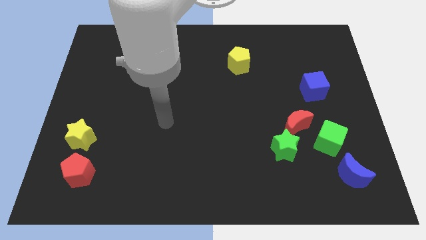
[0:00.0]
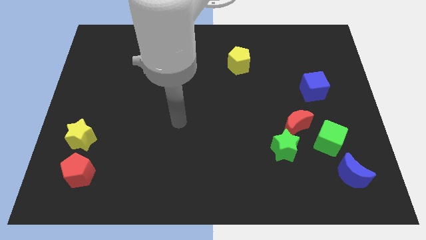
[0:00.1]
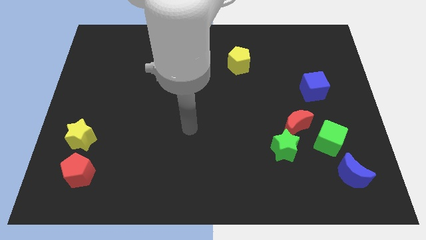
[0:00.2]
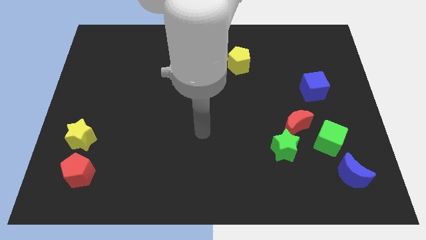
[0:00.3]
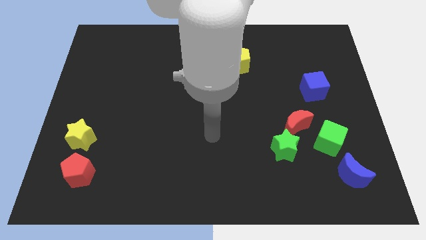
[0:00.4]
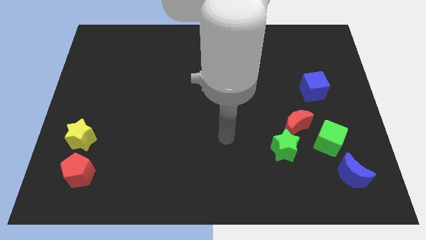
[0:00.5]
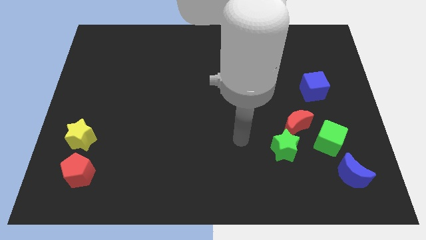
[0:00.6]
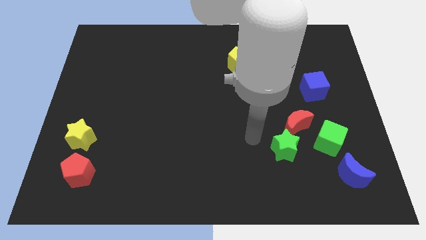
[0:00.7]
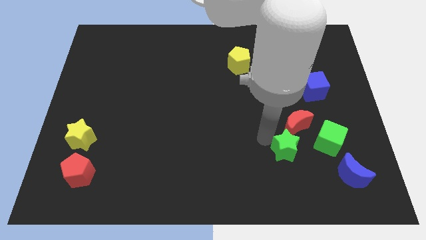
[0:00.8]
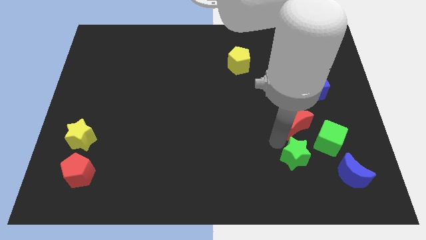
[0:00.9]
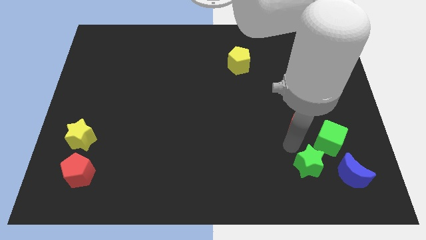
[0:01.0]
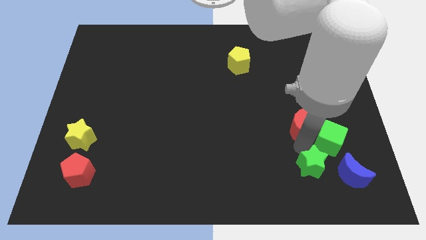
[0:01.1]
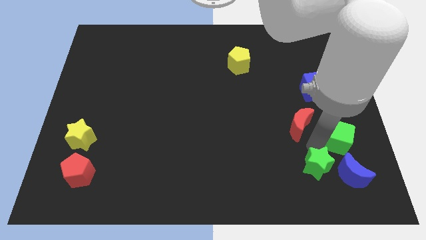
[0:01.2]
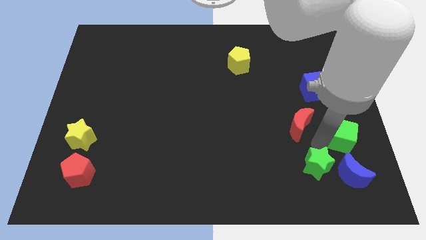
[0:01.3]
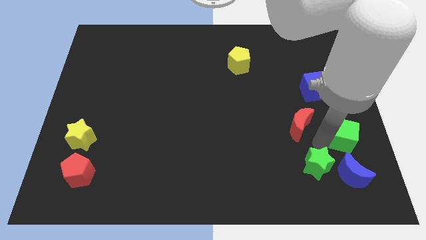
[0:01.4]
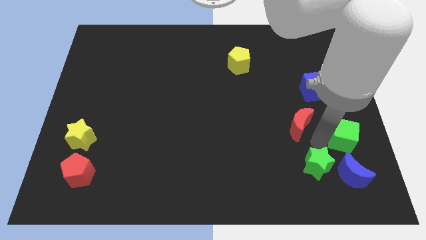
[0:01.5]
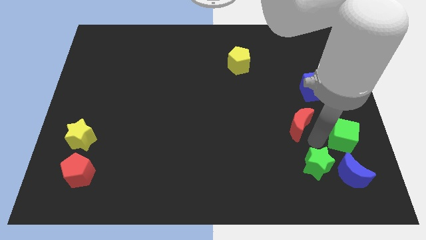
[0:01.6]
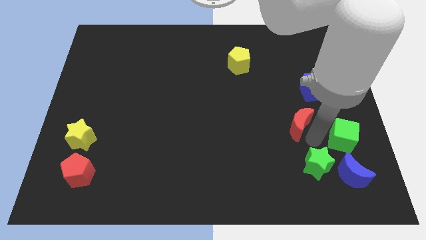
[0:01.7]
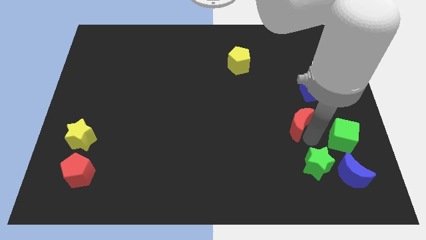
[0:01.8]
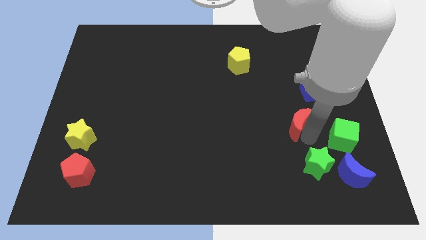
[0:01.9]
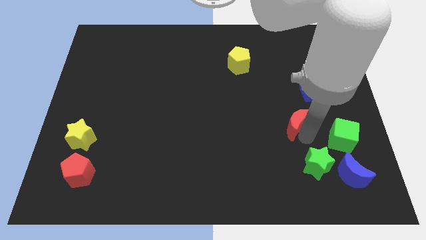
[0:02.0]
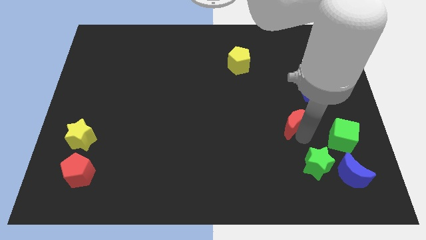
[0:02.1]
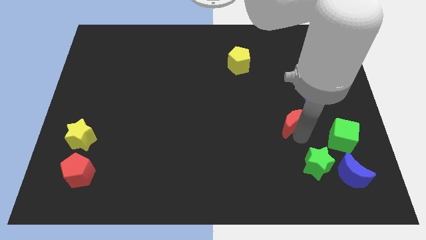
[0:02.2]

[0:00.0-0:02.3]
pull the red moon apart from the green star and green cube

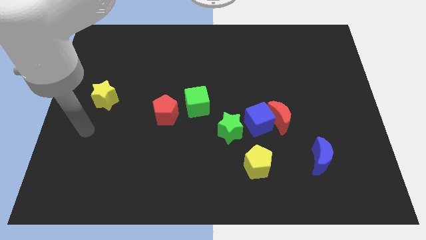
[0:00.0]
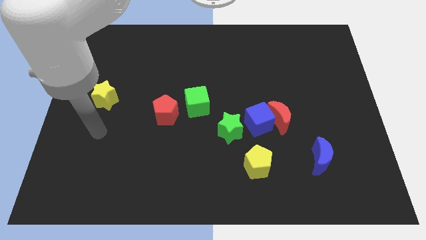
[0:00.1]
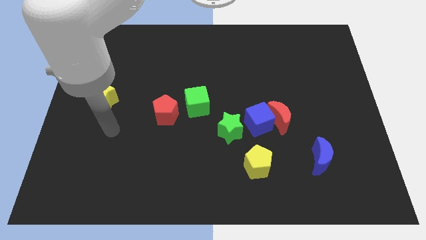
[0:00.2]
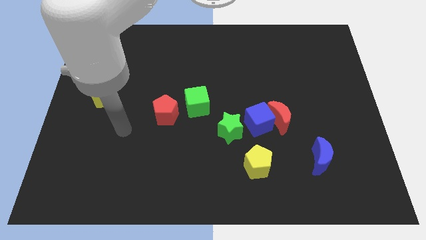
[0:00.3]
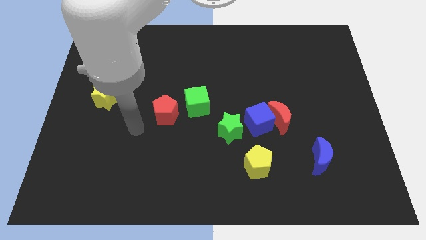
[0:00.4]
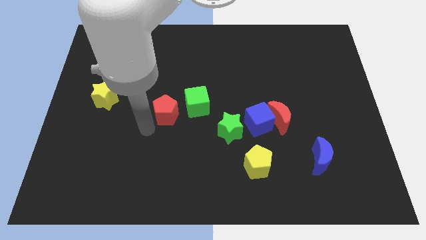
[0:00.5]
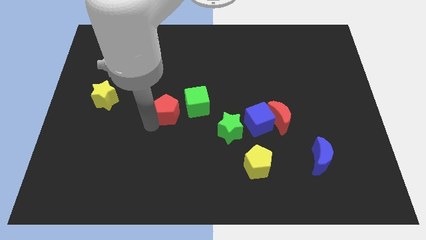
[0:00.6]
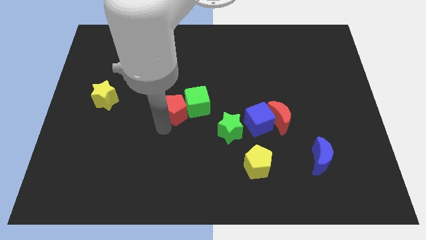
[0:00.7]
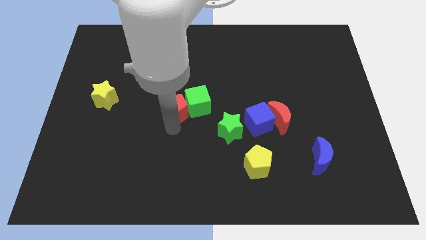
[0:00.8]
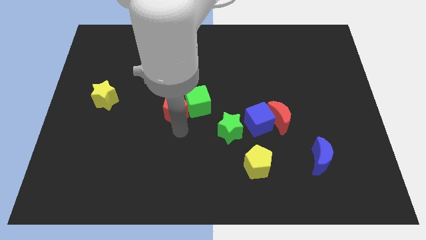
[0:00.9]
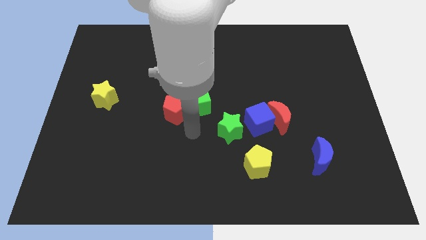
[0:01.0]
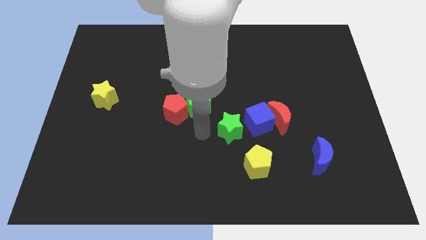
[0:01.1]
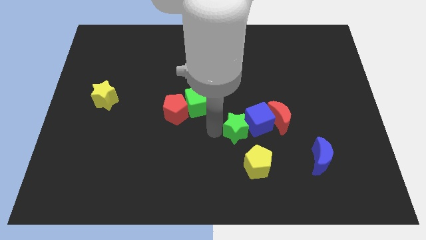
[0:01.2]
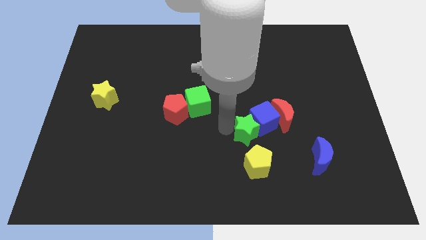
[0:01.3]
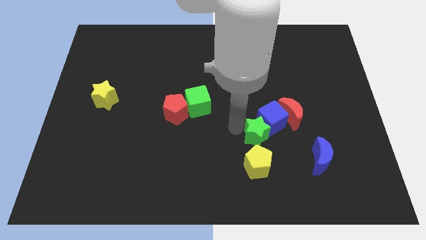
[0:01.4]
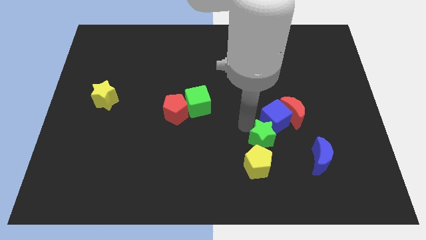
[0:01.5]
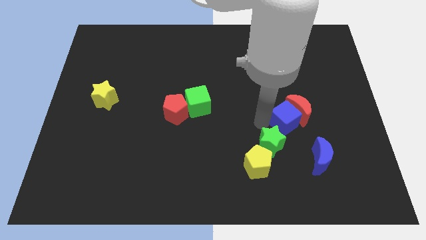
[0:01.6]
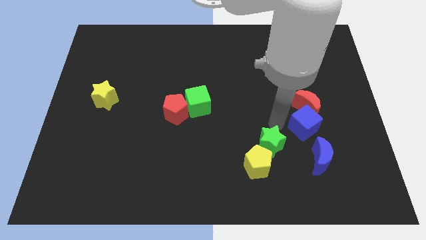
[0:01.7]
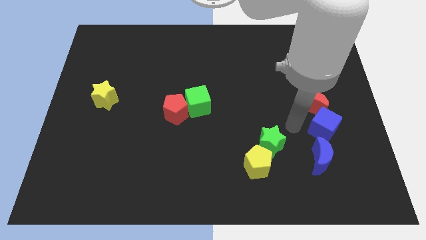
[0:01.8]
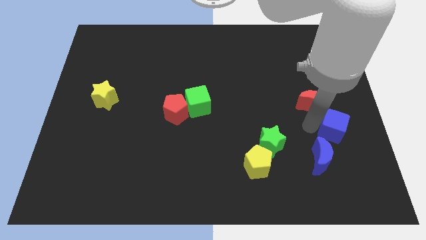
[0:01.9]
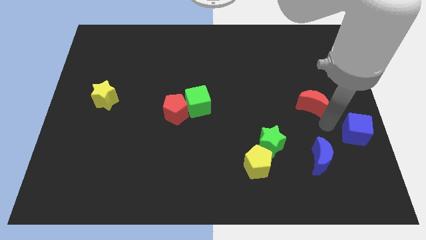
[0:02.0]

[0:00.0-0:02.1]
pull the red moon apart from the blue cube

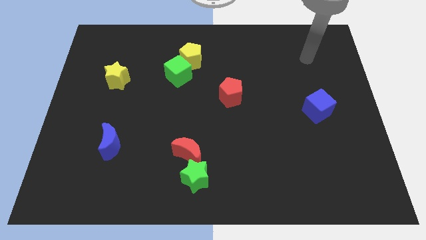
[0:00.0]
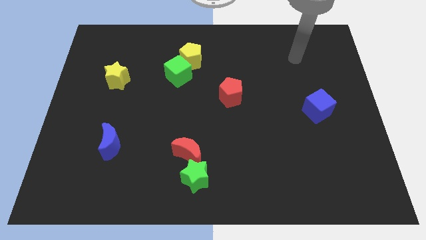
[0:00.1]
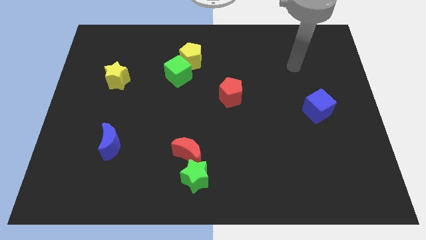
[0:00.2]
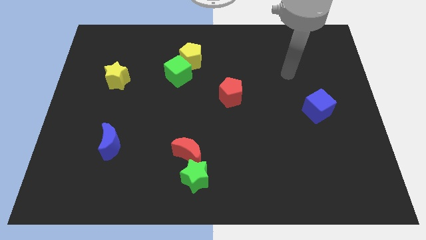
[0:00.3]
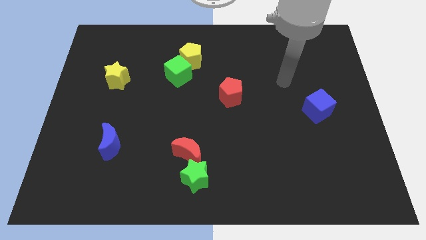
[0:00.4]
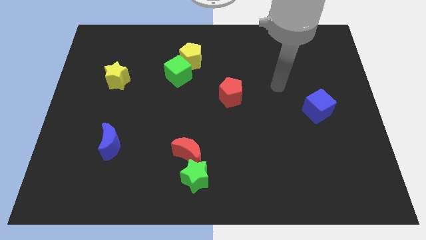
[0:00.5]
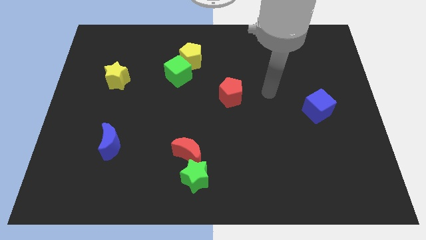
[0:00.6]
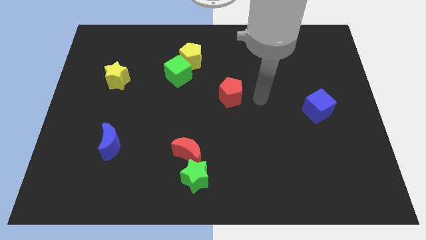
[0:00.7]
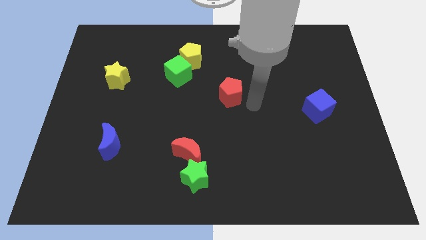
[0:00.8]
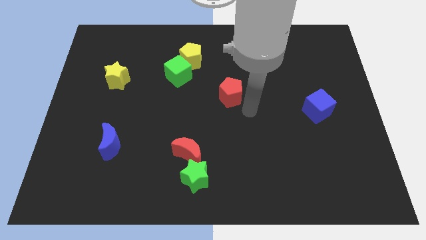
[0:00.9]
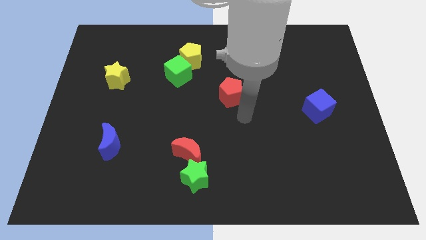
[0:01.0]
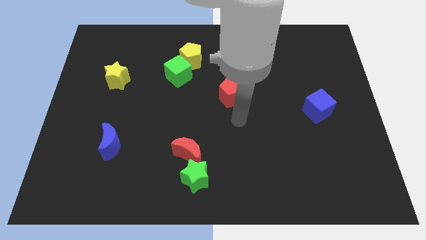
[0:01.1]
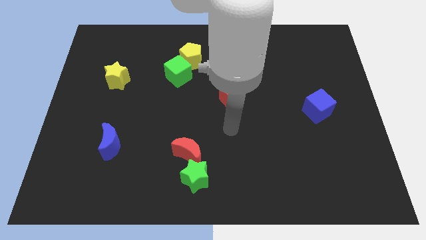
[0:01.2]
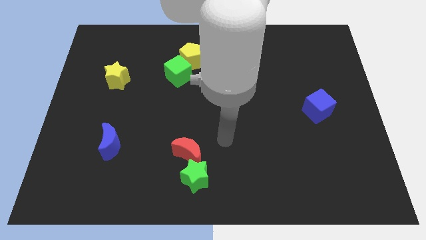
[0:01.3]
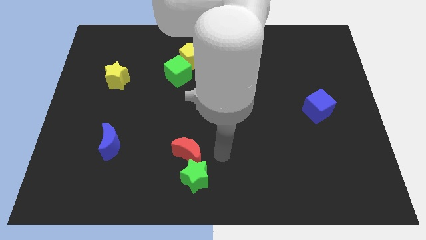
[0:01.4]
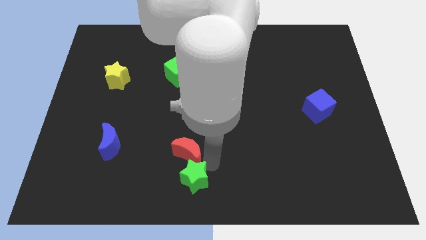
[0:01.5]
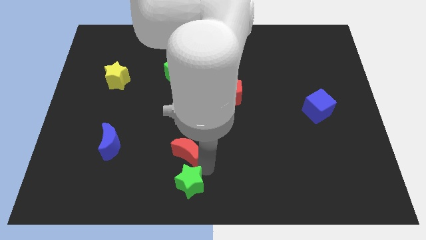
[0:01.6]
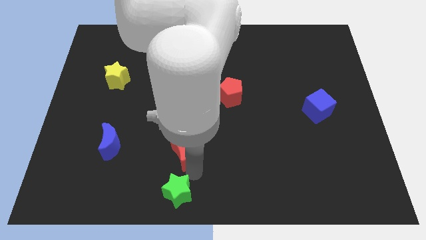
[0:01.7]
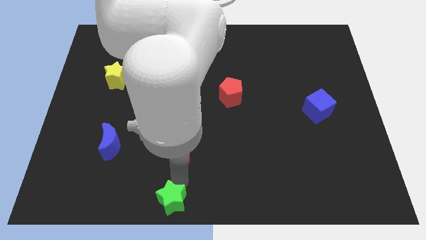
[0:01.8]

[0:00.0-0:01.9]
separate the red moon from the green star

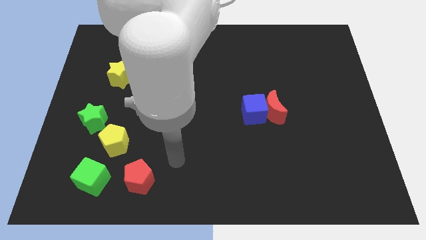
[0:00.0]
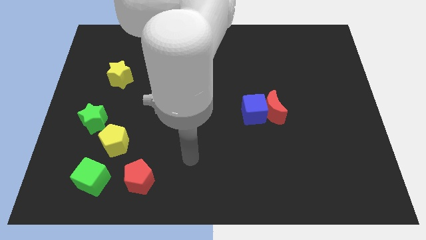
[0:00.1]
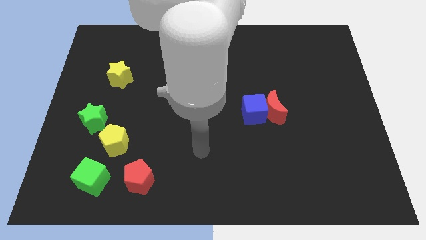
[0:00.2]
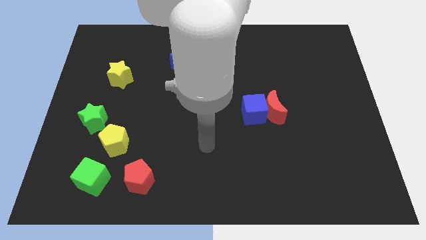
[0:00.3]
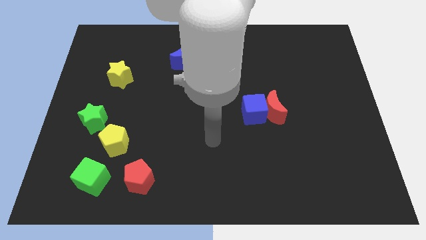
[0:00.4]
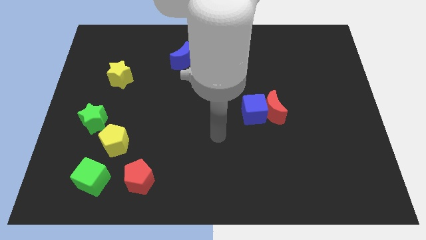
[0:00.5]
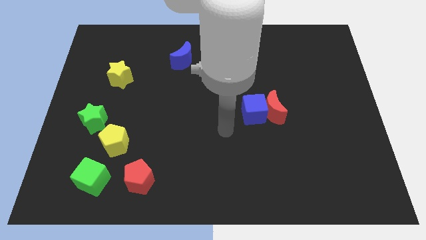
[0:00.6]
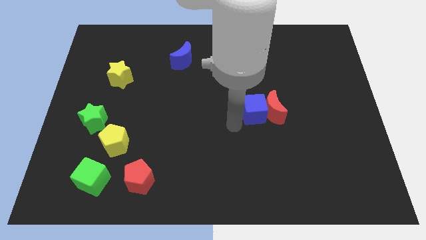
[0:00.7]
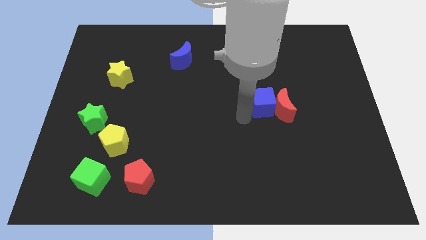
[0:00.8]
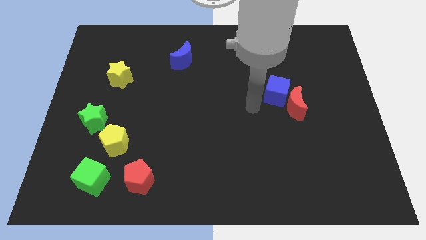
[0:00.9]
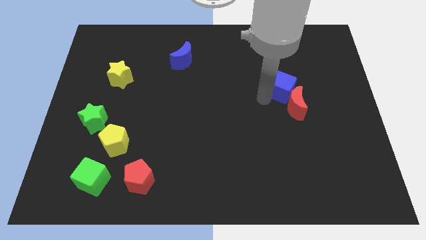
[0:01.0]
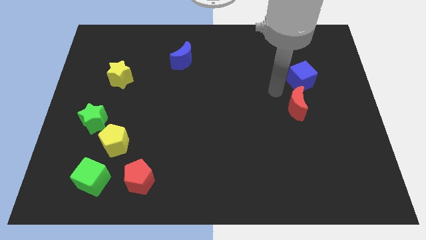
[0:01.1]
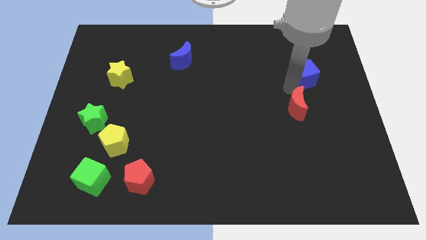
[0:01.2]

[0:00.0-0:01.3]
move the red moon away from the blue cube

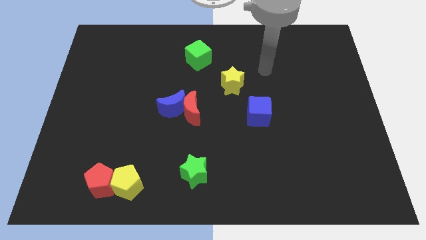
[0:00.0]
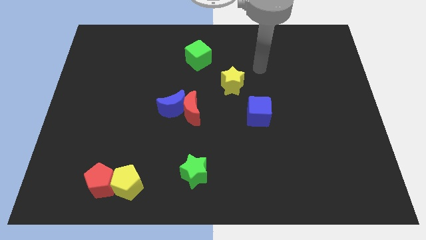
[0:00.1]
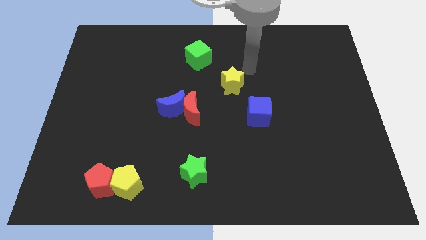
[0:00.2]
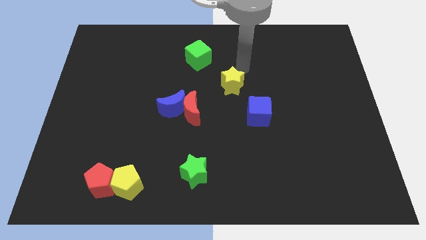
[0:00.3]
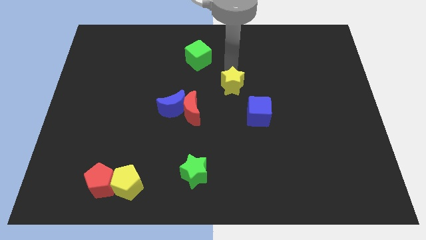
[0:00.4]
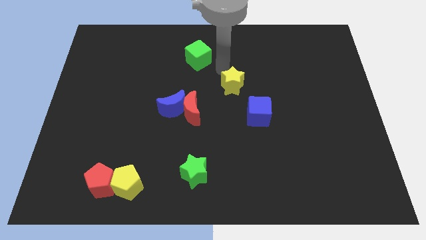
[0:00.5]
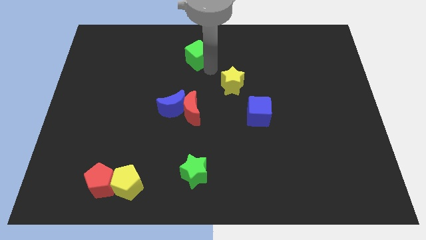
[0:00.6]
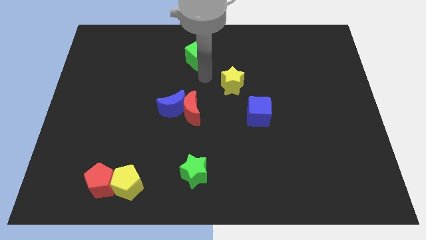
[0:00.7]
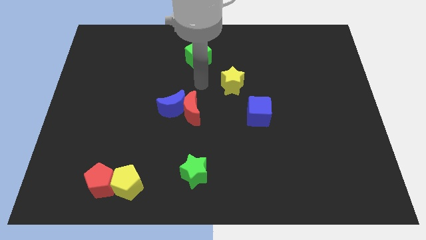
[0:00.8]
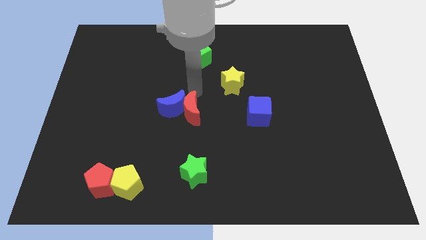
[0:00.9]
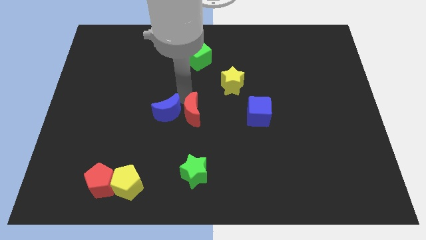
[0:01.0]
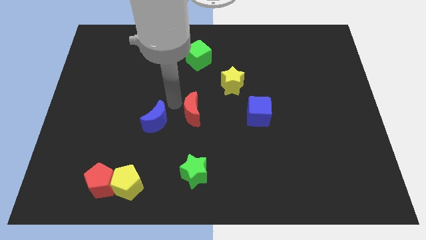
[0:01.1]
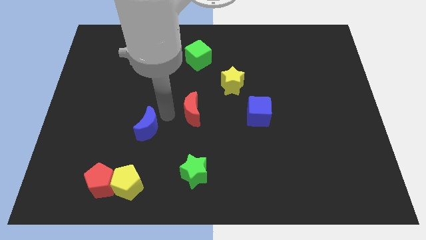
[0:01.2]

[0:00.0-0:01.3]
move the red moon away from the blue moon

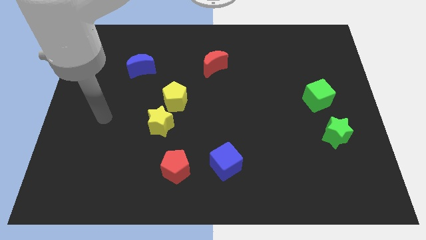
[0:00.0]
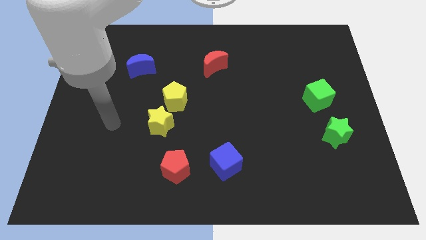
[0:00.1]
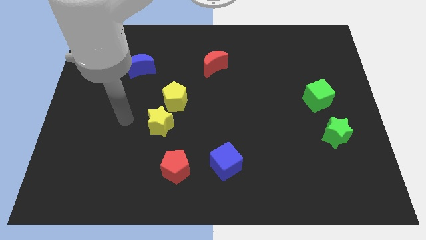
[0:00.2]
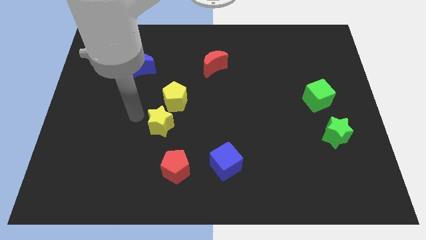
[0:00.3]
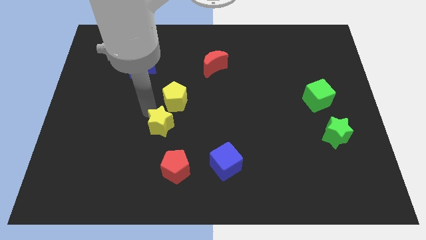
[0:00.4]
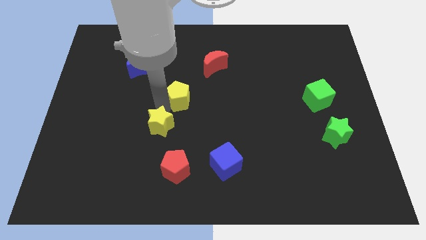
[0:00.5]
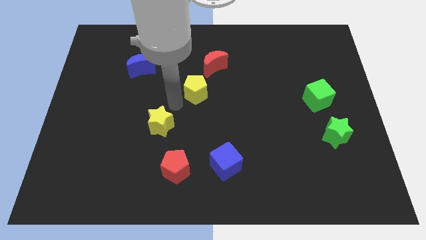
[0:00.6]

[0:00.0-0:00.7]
separate the yellow star from the yellow pentagon
